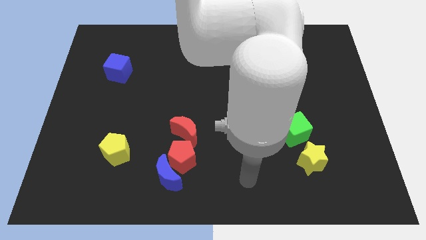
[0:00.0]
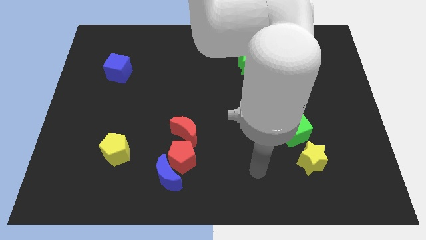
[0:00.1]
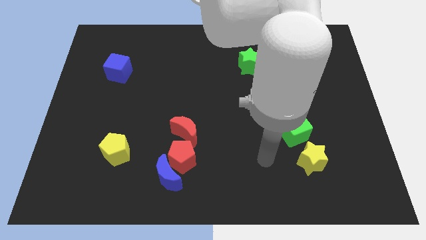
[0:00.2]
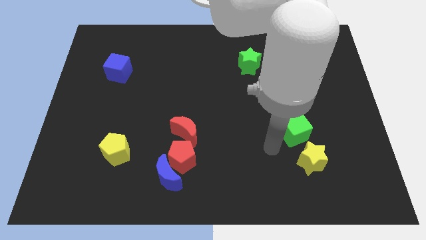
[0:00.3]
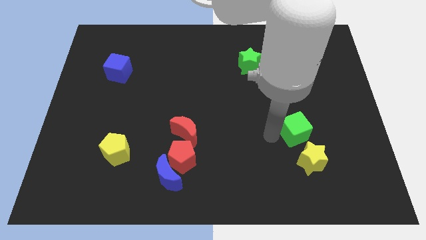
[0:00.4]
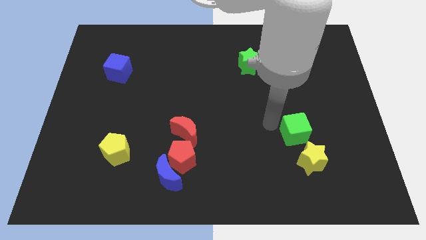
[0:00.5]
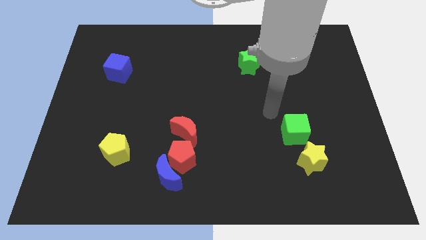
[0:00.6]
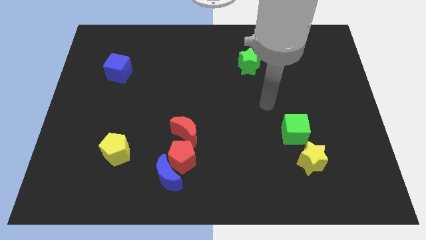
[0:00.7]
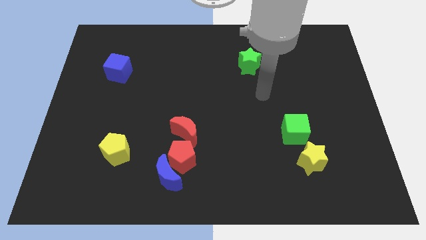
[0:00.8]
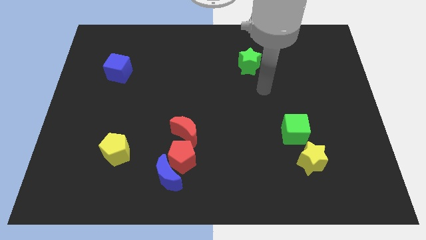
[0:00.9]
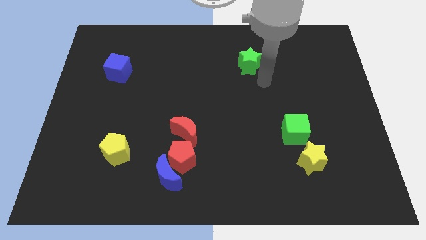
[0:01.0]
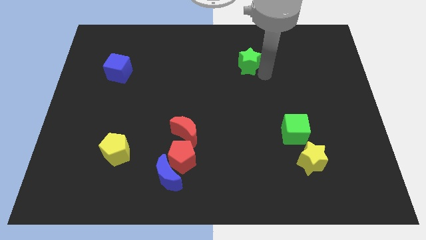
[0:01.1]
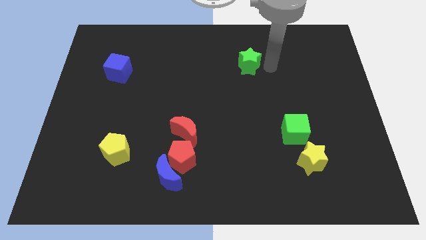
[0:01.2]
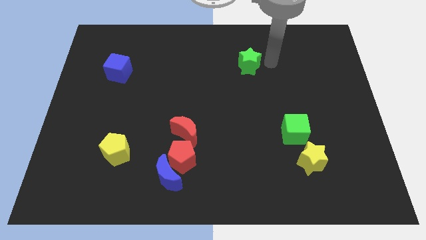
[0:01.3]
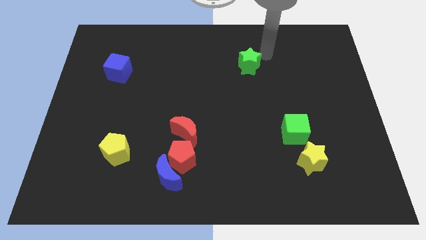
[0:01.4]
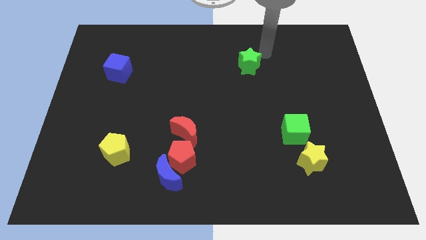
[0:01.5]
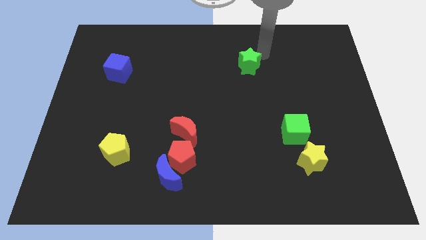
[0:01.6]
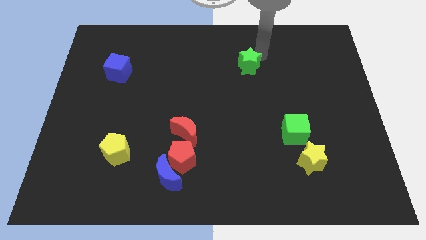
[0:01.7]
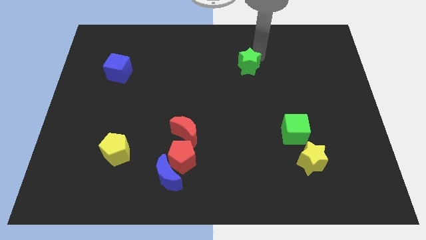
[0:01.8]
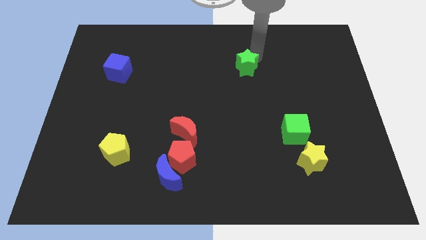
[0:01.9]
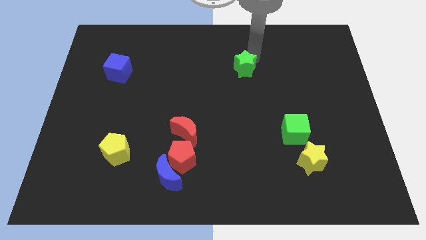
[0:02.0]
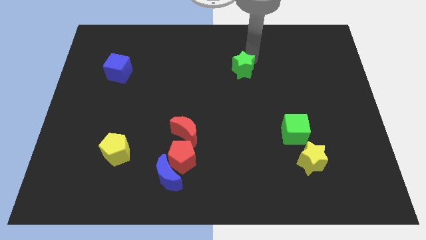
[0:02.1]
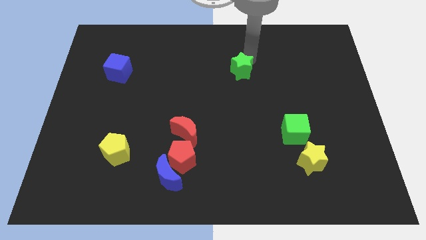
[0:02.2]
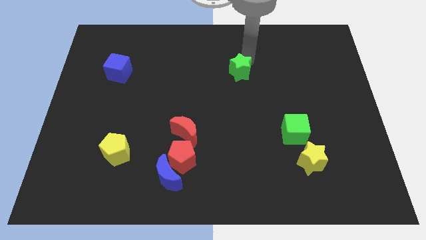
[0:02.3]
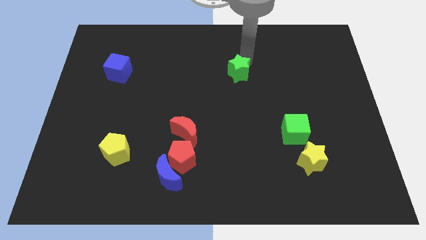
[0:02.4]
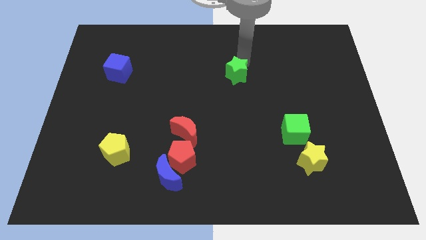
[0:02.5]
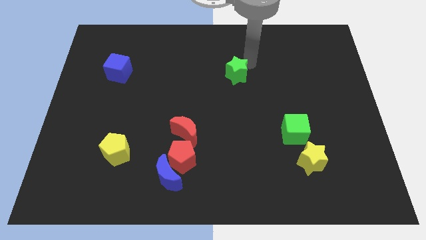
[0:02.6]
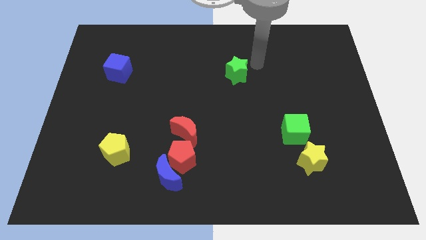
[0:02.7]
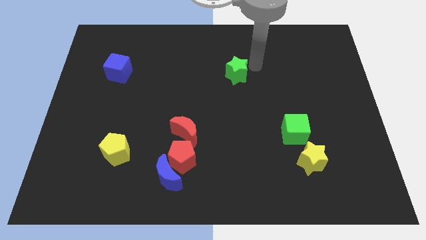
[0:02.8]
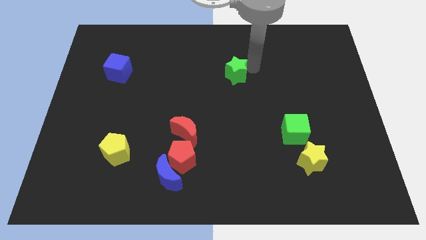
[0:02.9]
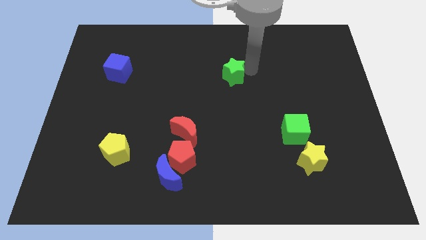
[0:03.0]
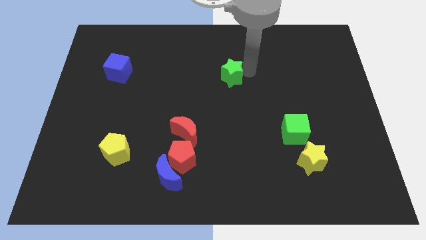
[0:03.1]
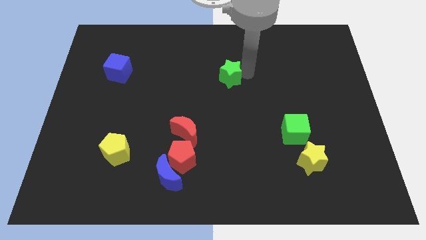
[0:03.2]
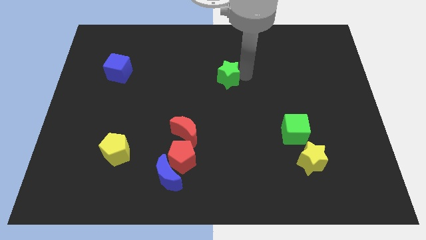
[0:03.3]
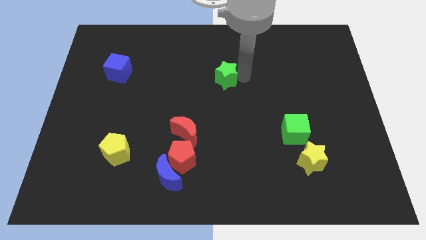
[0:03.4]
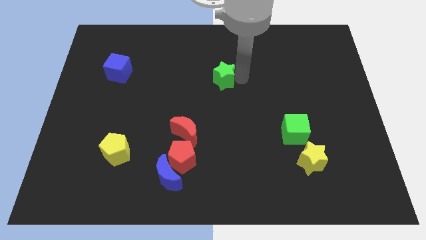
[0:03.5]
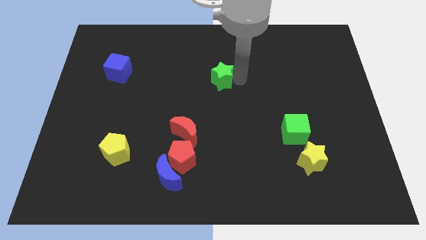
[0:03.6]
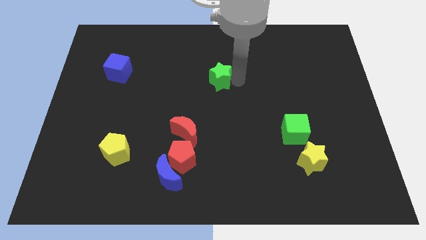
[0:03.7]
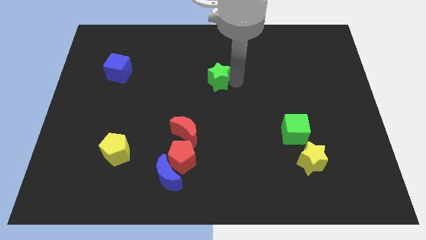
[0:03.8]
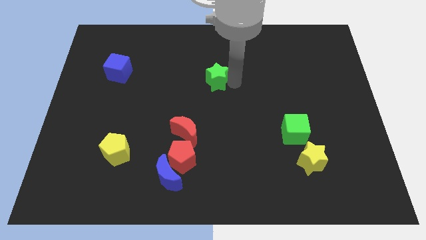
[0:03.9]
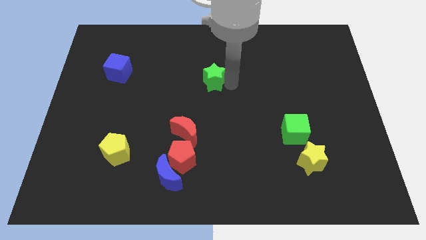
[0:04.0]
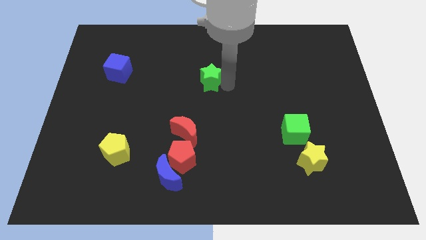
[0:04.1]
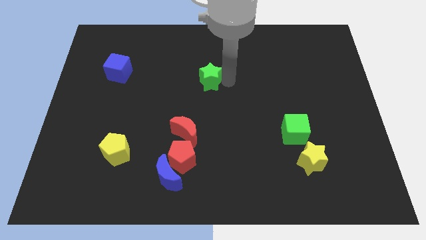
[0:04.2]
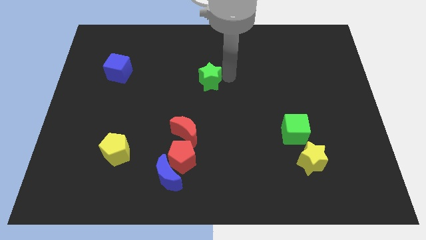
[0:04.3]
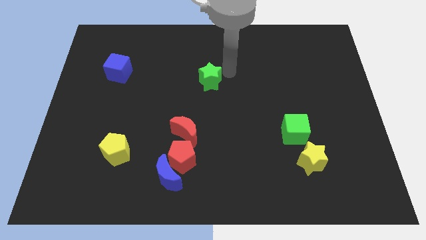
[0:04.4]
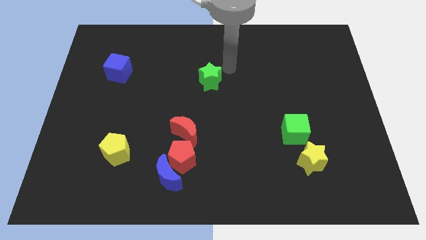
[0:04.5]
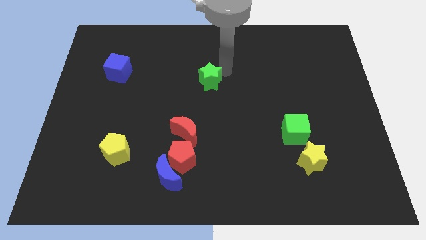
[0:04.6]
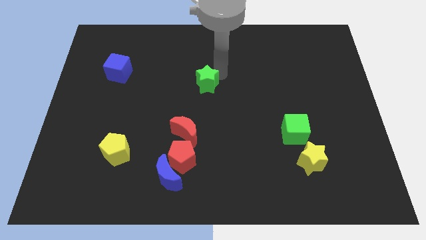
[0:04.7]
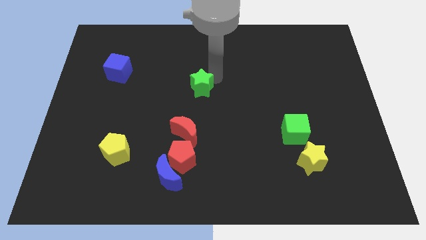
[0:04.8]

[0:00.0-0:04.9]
put the green star above the red moon

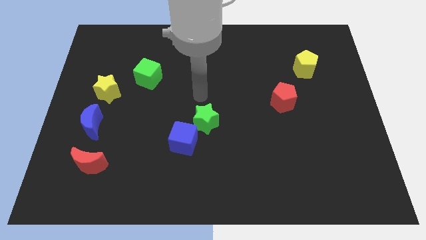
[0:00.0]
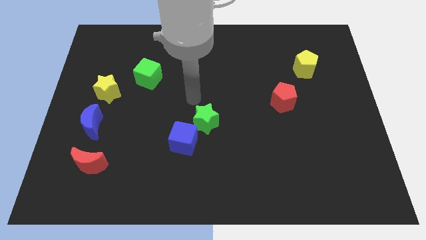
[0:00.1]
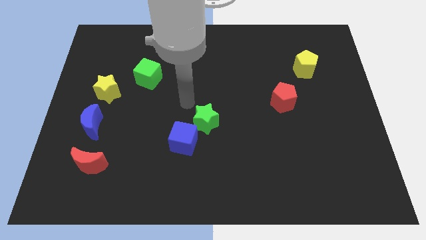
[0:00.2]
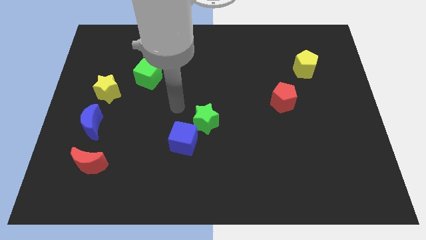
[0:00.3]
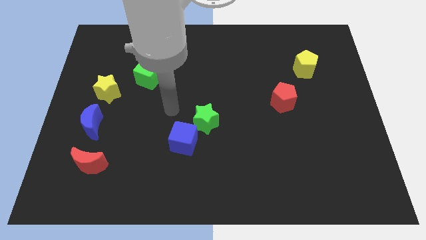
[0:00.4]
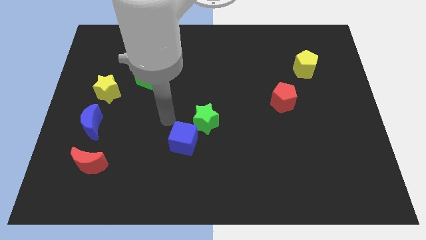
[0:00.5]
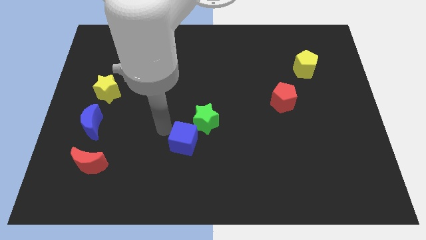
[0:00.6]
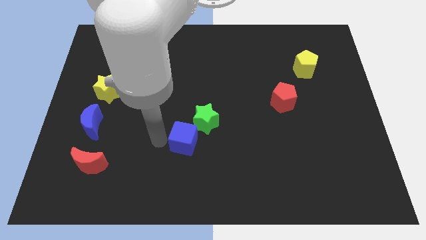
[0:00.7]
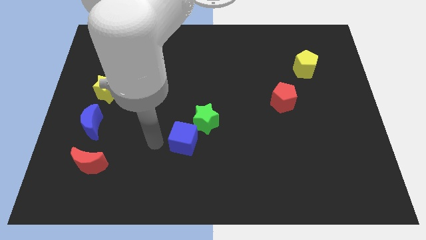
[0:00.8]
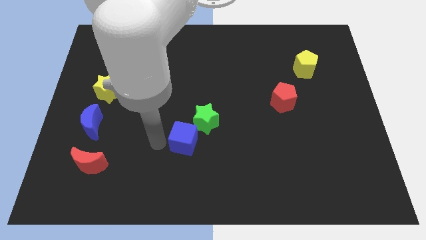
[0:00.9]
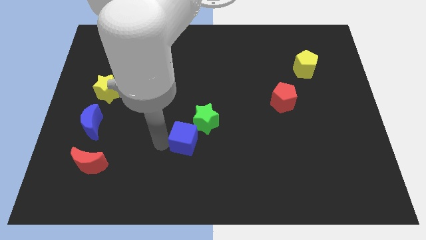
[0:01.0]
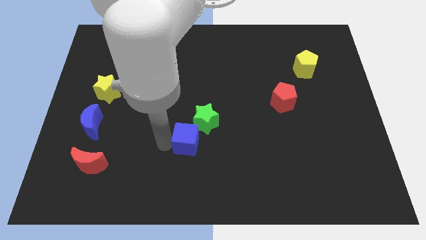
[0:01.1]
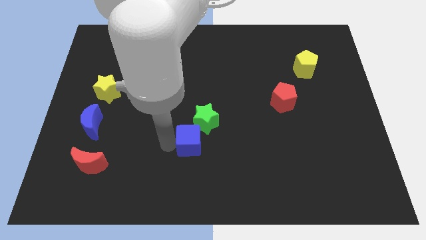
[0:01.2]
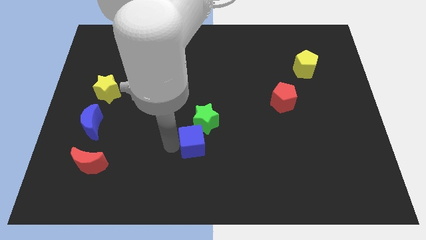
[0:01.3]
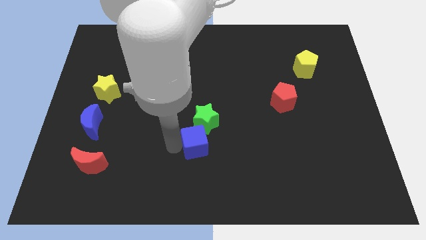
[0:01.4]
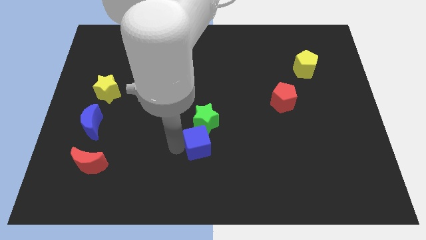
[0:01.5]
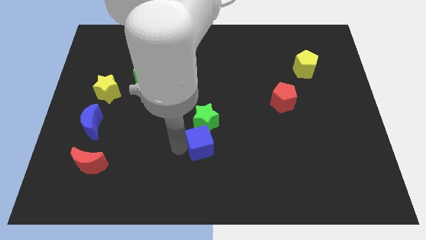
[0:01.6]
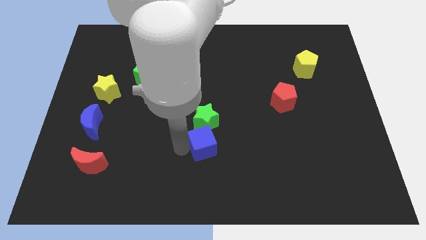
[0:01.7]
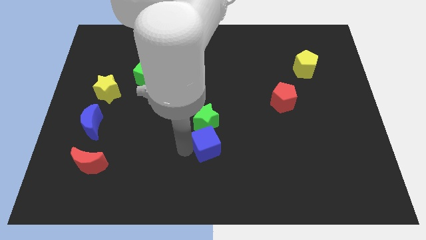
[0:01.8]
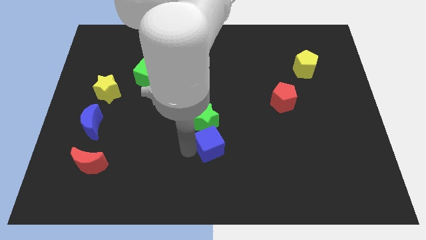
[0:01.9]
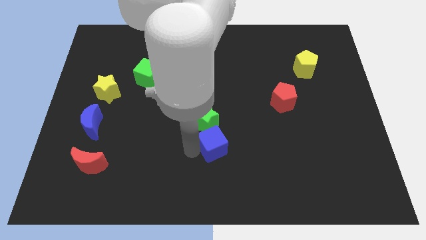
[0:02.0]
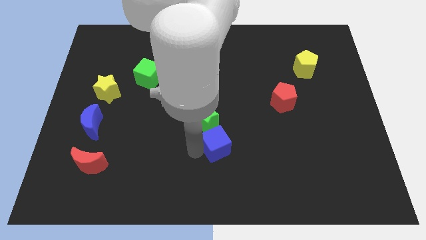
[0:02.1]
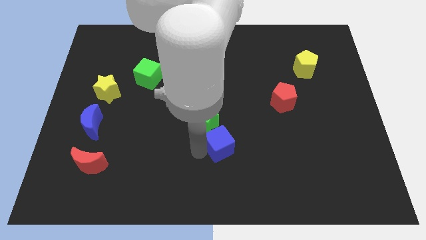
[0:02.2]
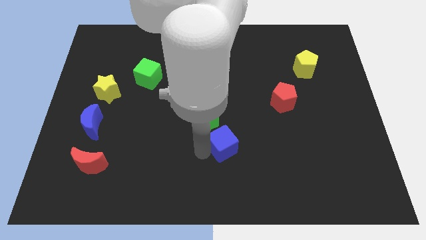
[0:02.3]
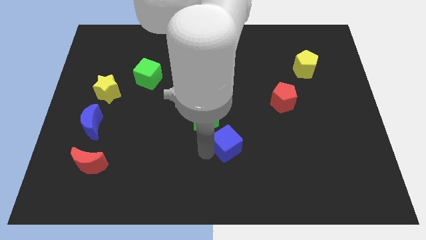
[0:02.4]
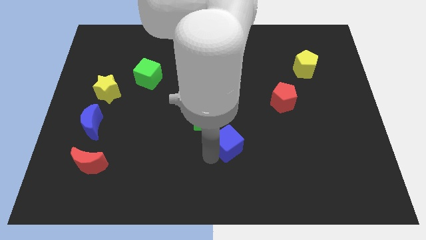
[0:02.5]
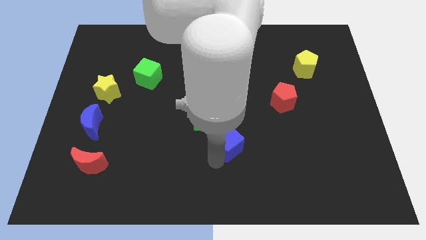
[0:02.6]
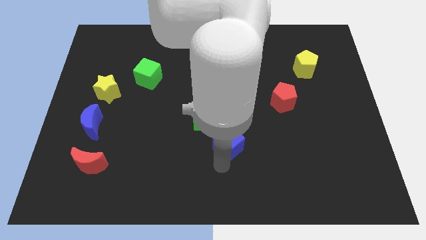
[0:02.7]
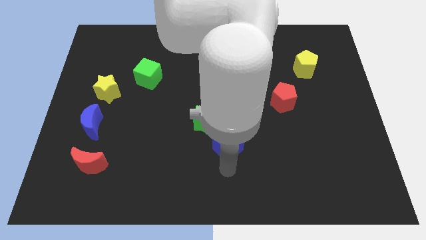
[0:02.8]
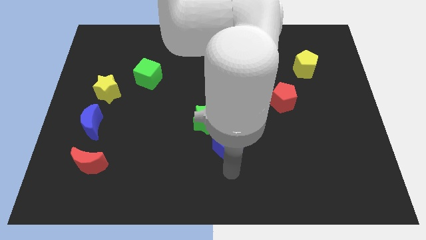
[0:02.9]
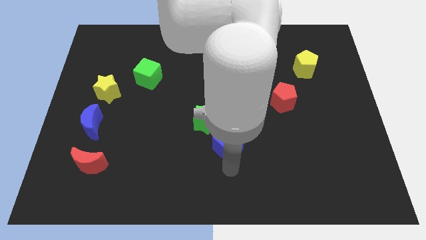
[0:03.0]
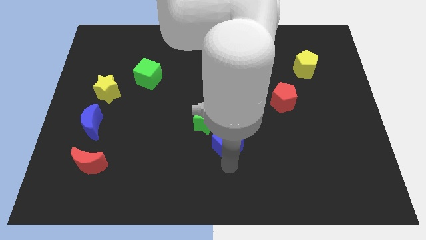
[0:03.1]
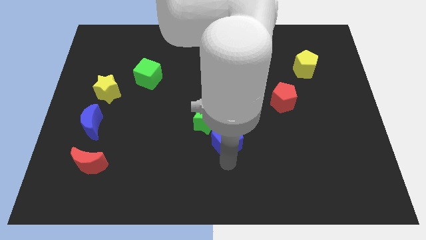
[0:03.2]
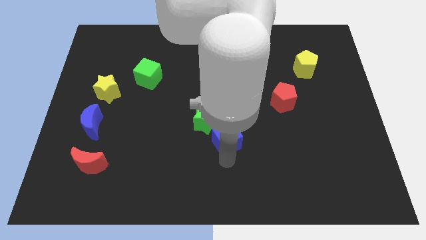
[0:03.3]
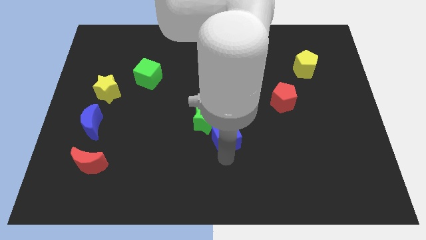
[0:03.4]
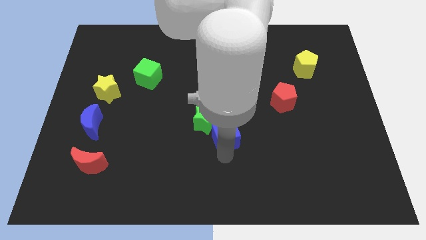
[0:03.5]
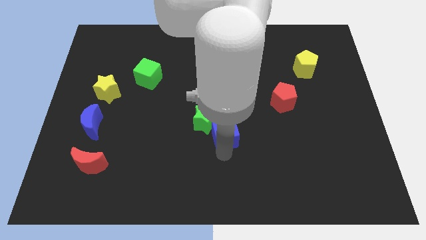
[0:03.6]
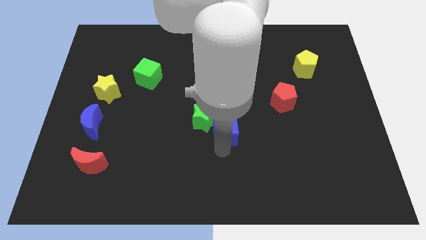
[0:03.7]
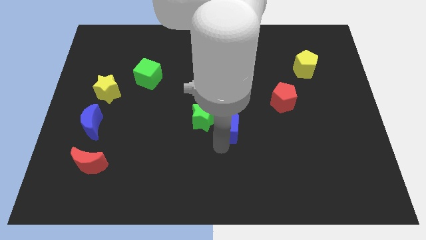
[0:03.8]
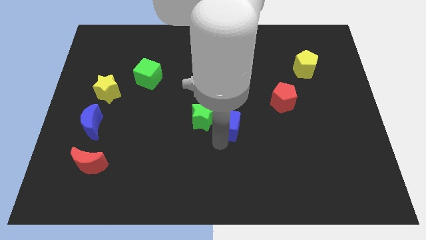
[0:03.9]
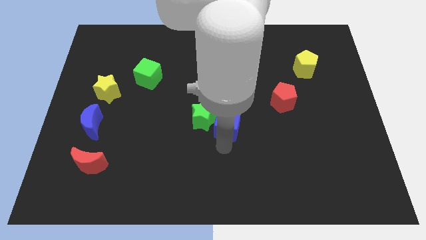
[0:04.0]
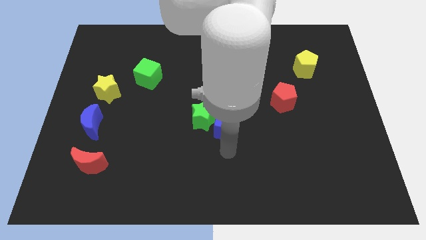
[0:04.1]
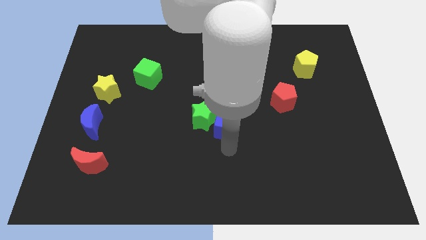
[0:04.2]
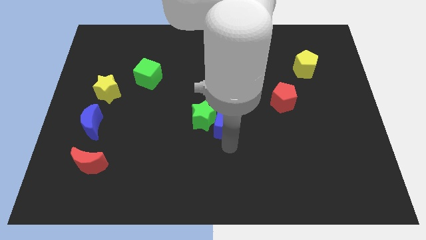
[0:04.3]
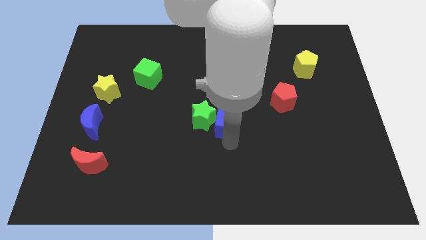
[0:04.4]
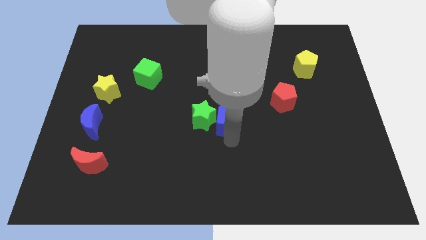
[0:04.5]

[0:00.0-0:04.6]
push the blue cube to the top right side of the green star
